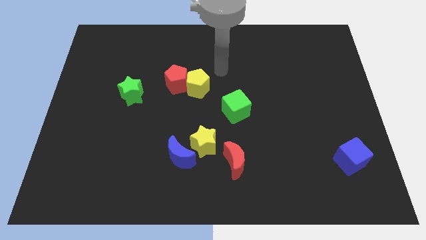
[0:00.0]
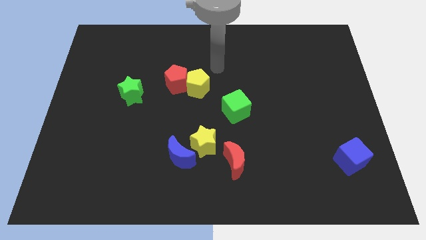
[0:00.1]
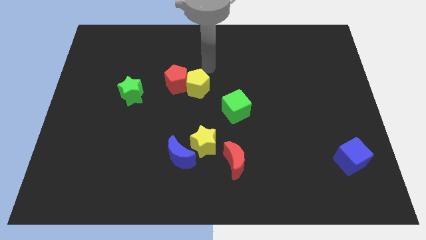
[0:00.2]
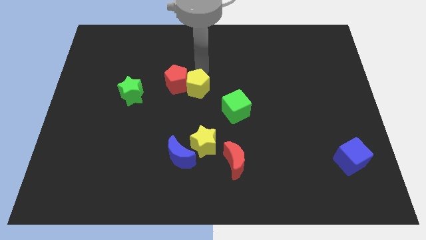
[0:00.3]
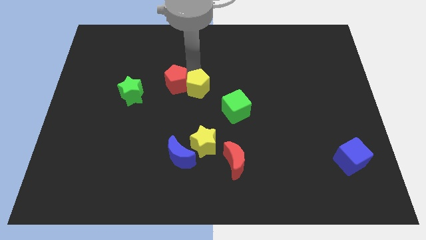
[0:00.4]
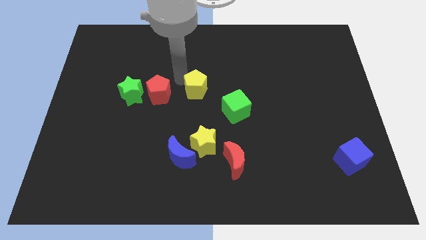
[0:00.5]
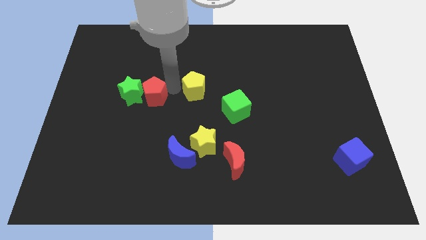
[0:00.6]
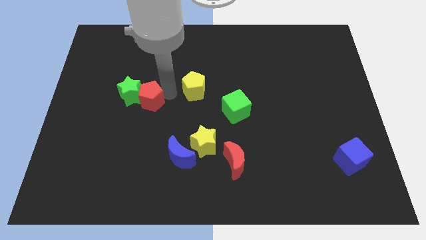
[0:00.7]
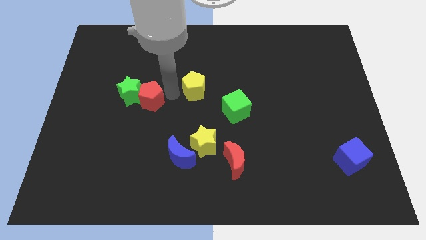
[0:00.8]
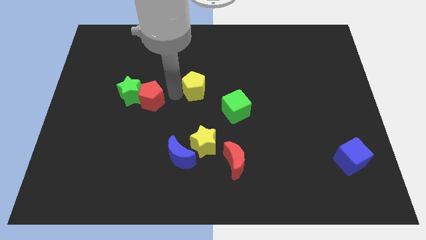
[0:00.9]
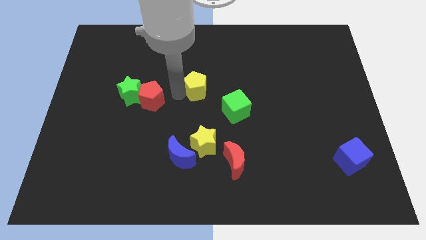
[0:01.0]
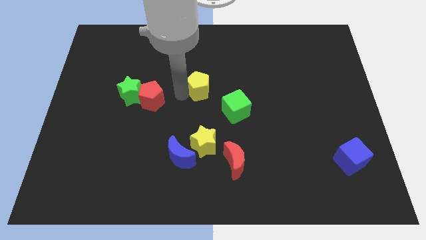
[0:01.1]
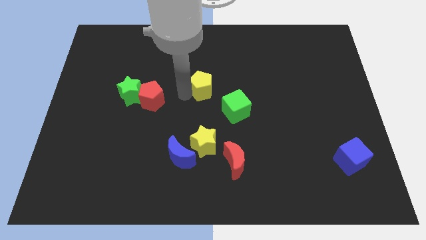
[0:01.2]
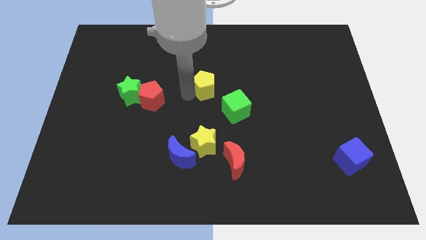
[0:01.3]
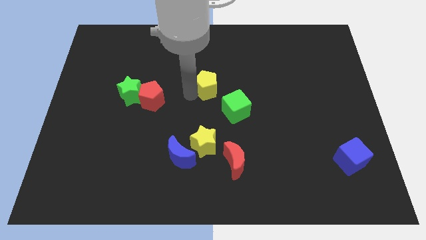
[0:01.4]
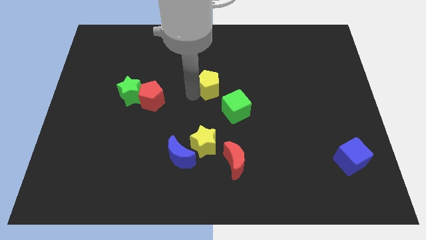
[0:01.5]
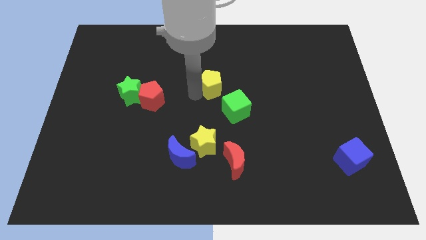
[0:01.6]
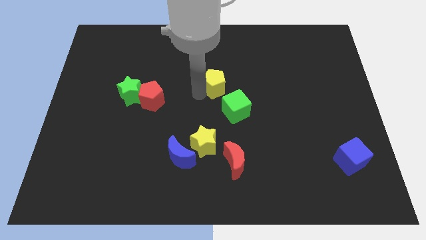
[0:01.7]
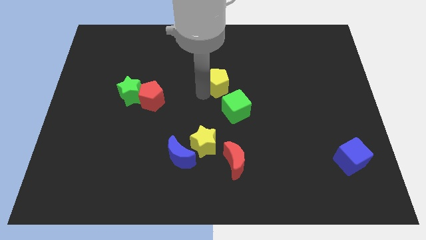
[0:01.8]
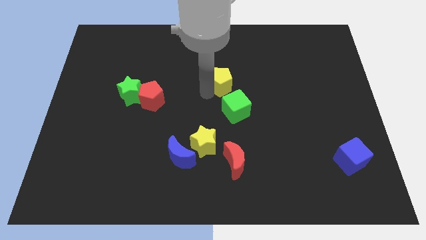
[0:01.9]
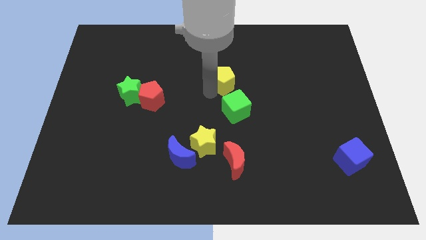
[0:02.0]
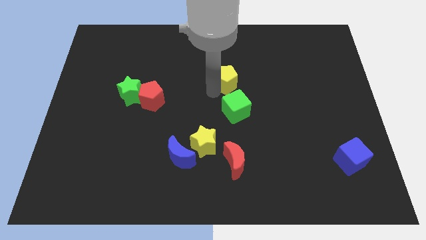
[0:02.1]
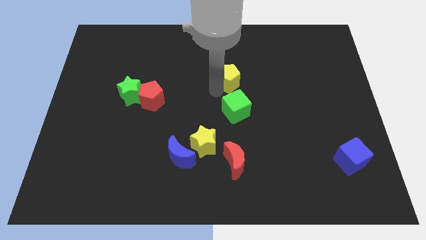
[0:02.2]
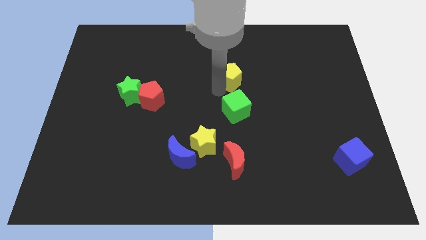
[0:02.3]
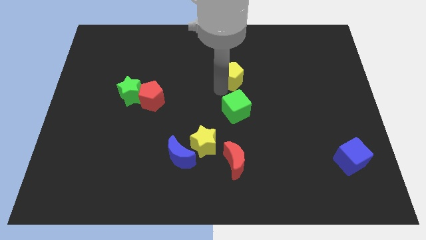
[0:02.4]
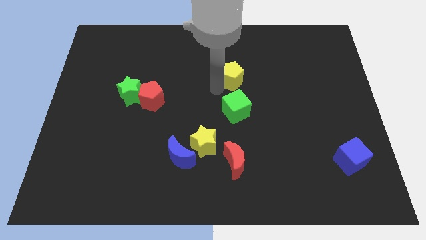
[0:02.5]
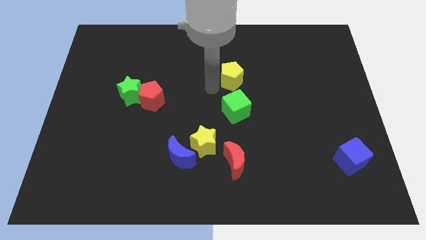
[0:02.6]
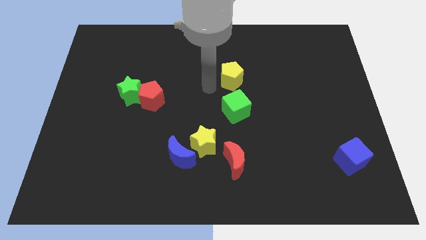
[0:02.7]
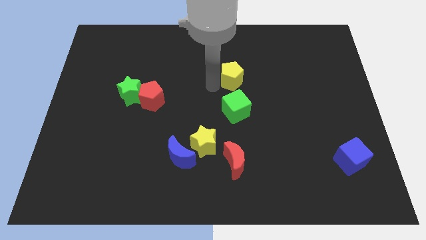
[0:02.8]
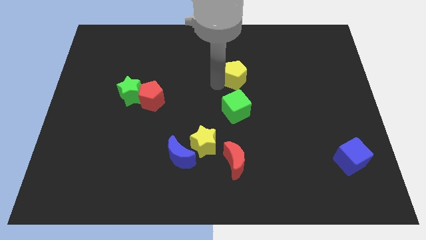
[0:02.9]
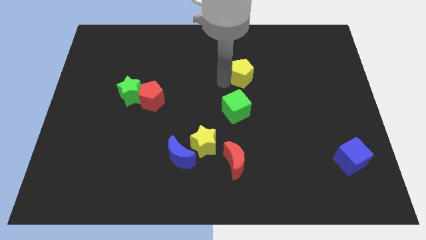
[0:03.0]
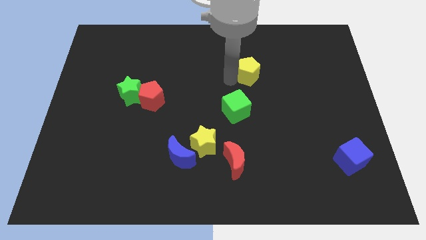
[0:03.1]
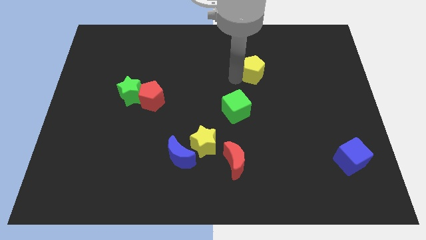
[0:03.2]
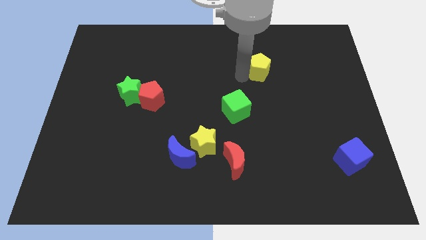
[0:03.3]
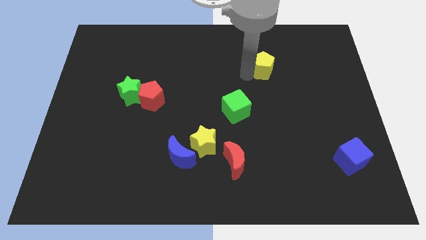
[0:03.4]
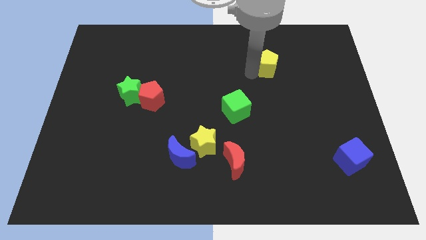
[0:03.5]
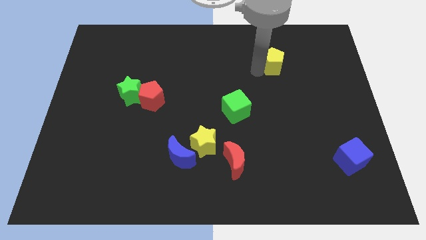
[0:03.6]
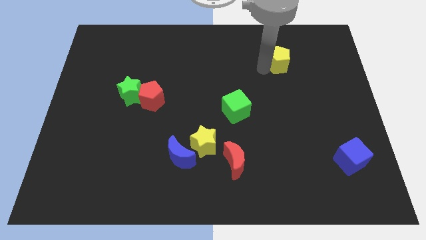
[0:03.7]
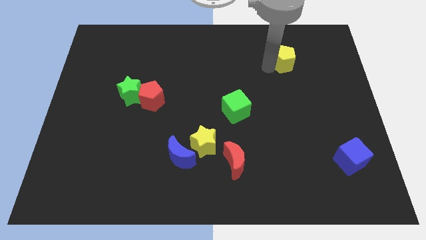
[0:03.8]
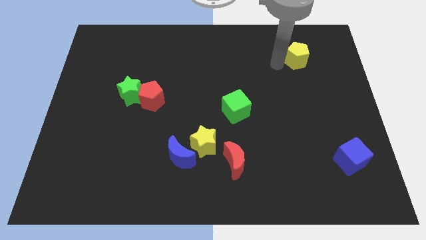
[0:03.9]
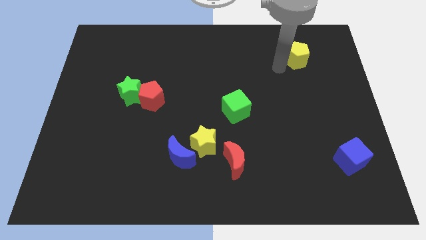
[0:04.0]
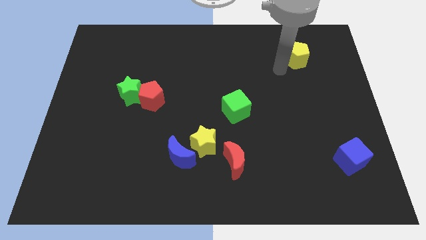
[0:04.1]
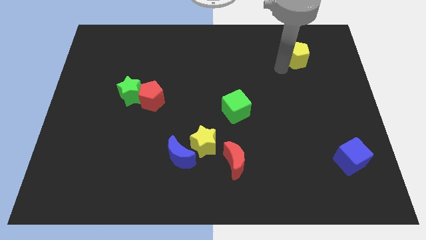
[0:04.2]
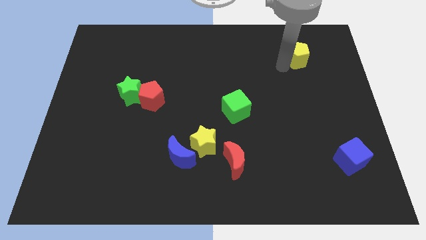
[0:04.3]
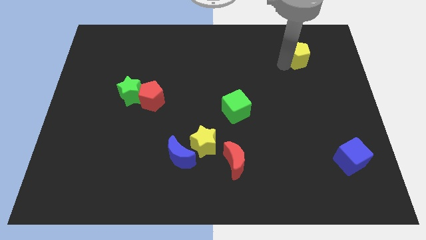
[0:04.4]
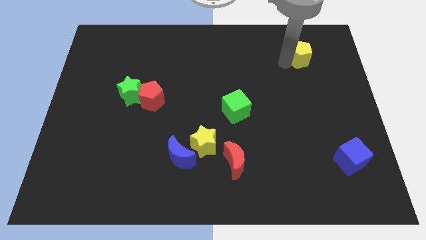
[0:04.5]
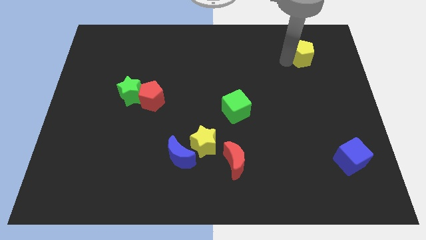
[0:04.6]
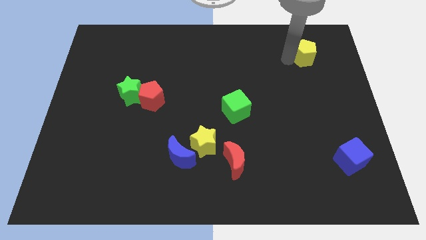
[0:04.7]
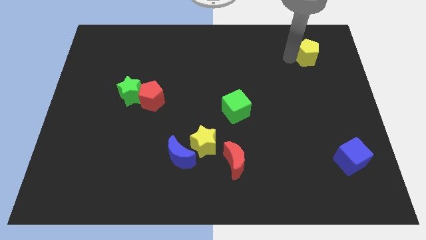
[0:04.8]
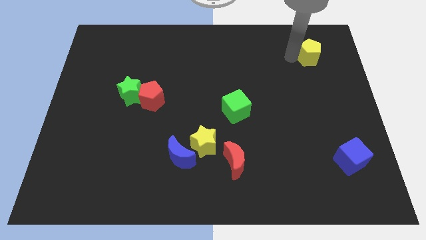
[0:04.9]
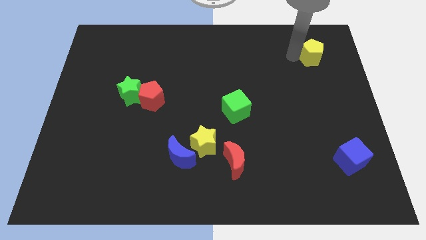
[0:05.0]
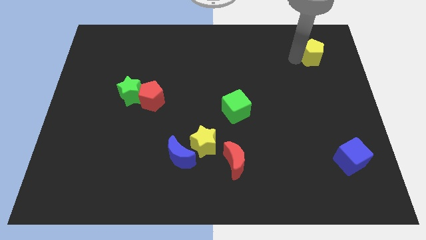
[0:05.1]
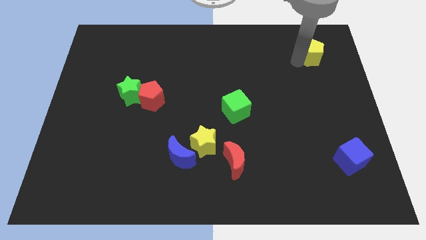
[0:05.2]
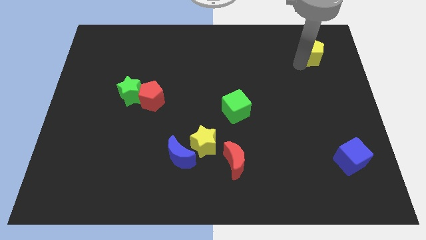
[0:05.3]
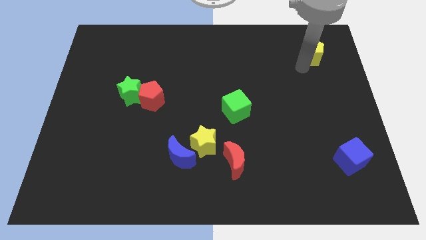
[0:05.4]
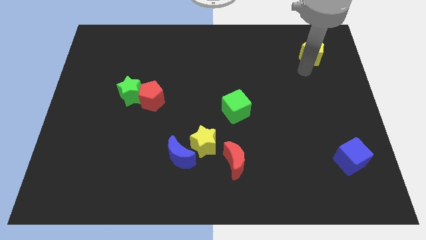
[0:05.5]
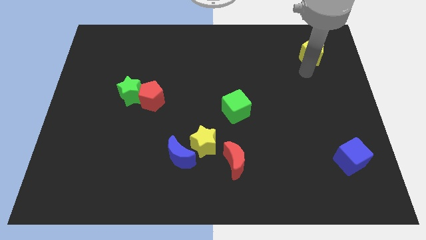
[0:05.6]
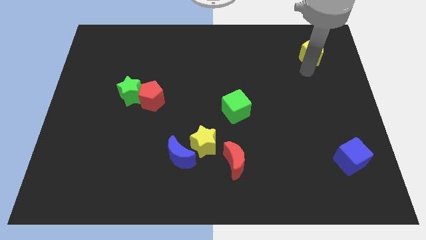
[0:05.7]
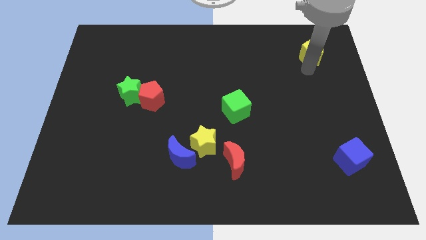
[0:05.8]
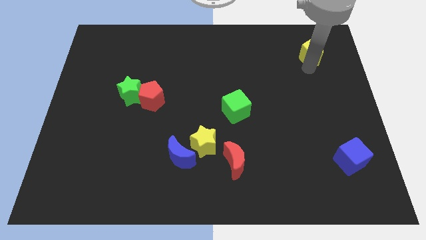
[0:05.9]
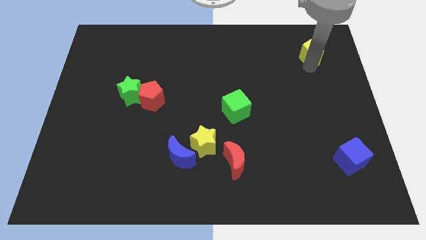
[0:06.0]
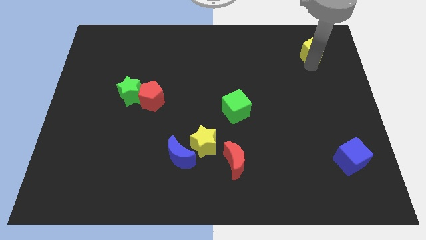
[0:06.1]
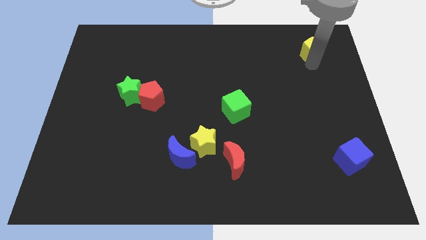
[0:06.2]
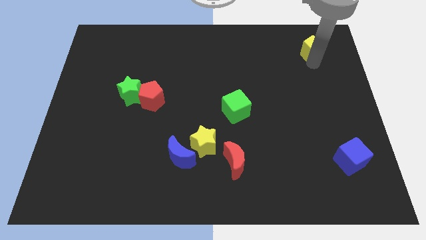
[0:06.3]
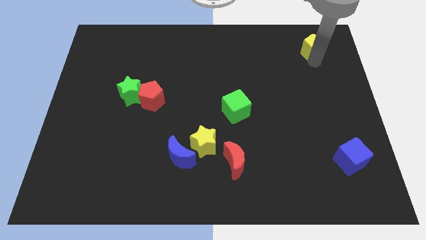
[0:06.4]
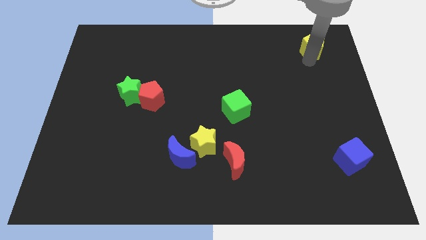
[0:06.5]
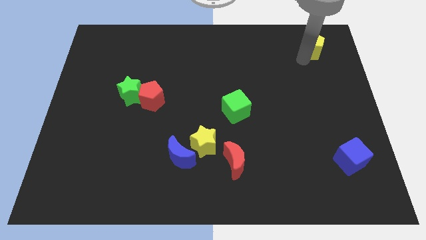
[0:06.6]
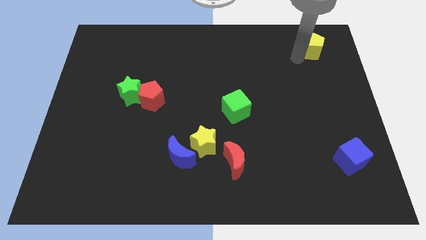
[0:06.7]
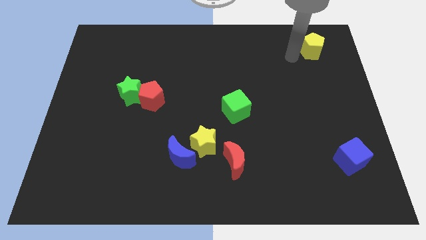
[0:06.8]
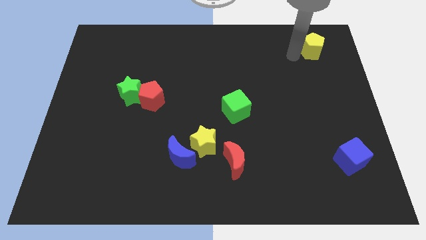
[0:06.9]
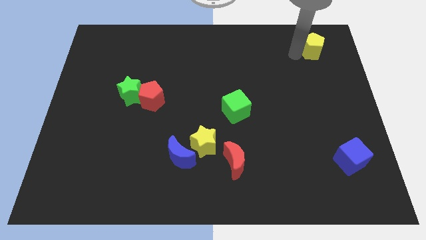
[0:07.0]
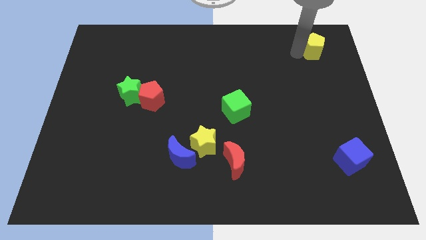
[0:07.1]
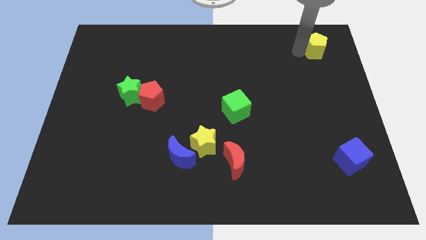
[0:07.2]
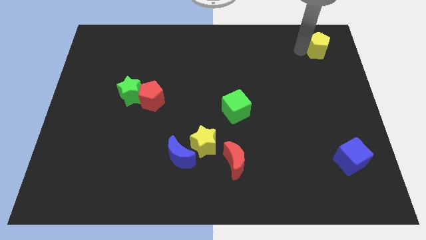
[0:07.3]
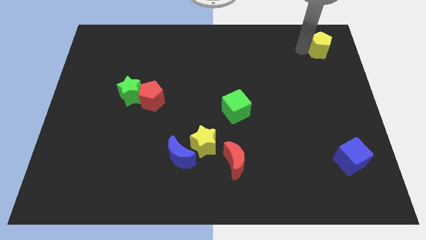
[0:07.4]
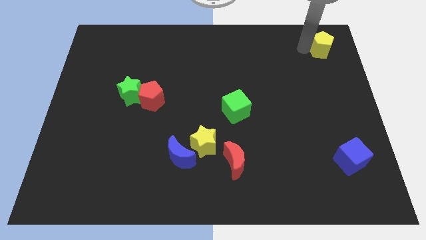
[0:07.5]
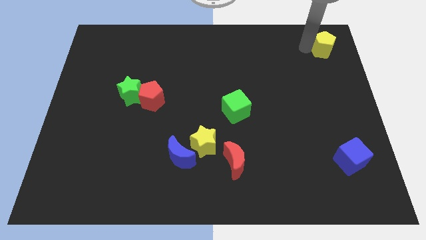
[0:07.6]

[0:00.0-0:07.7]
move the yellow pentagon to the top right
